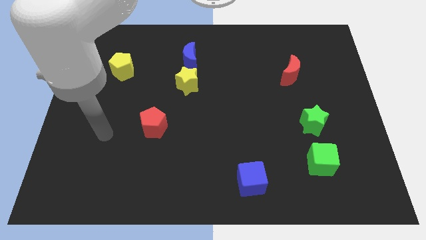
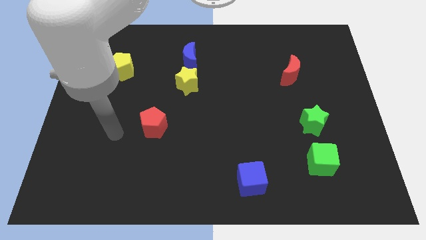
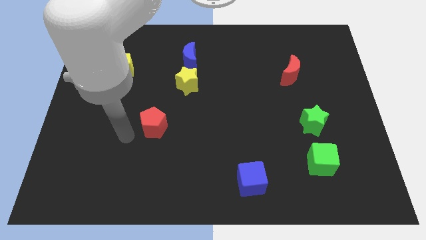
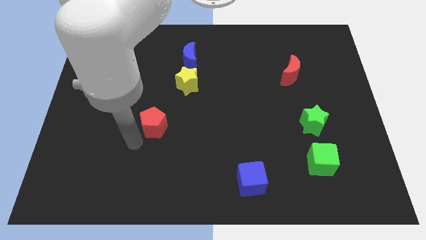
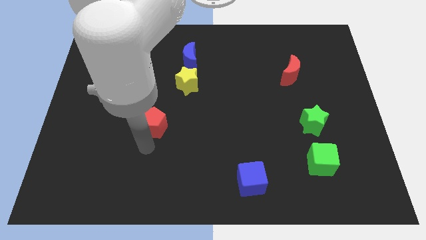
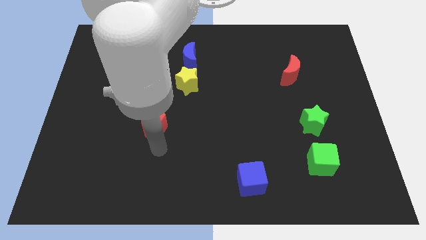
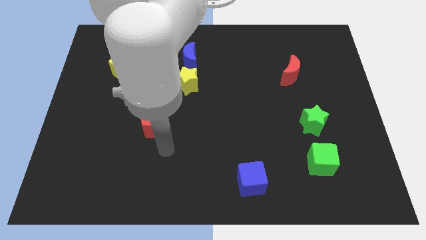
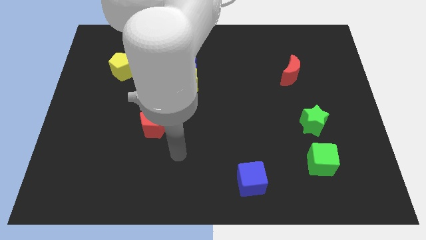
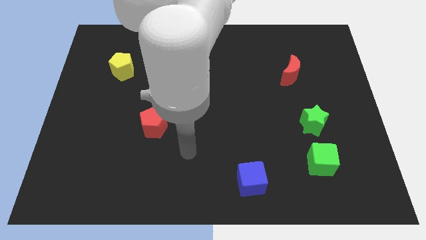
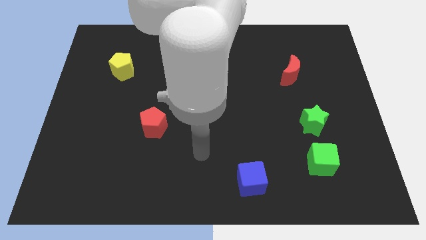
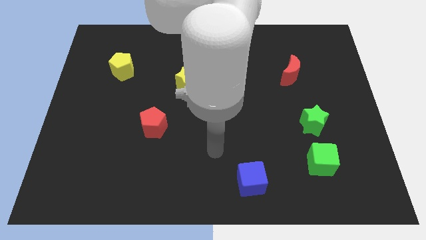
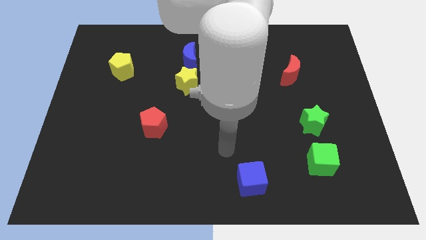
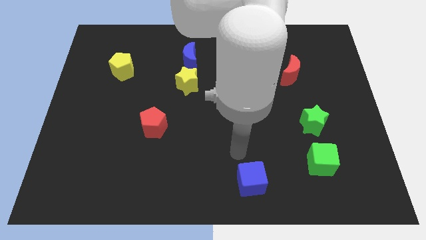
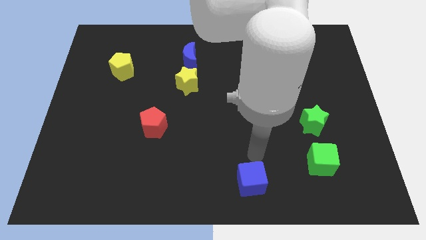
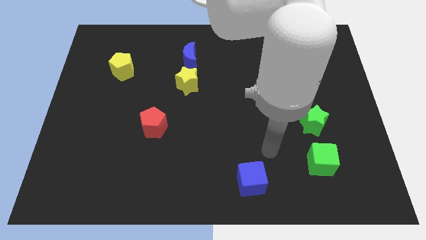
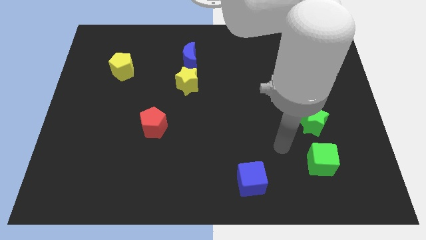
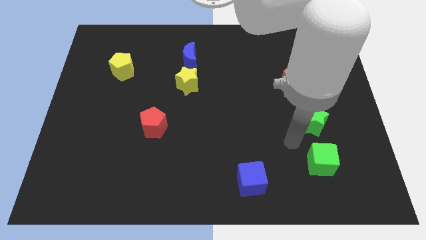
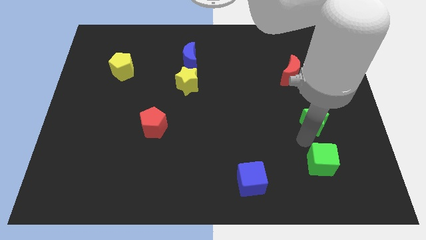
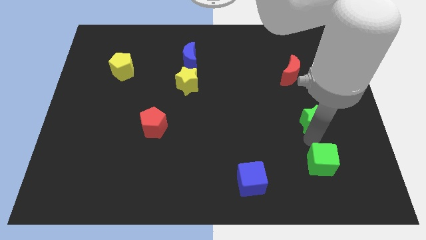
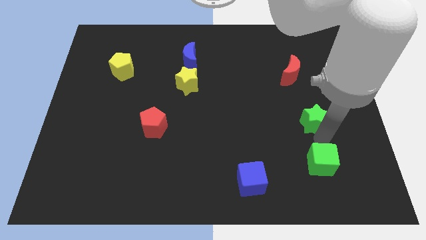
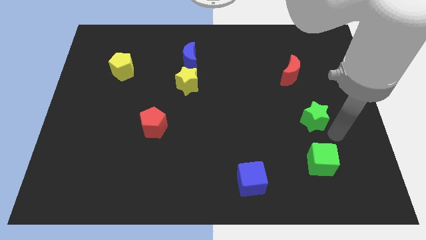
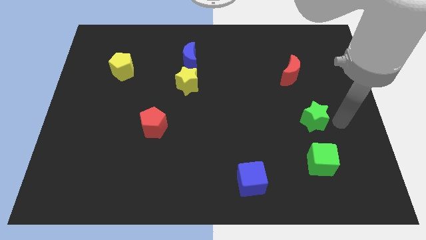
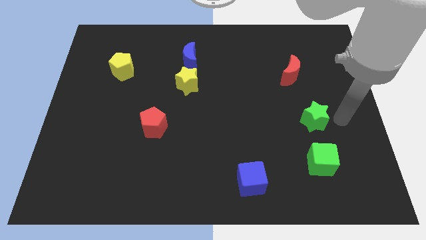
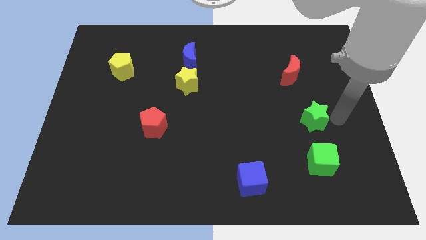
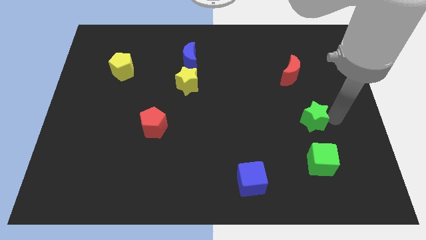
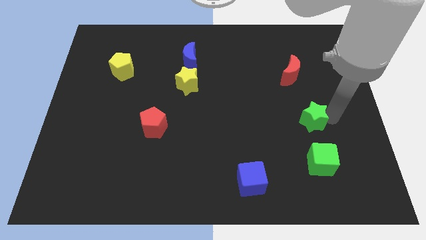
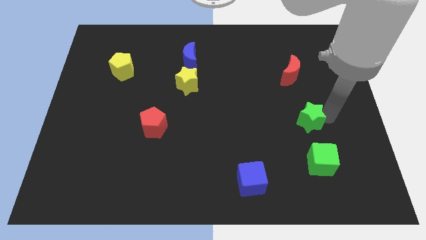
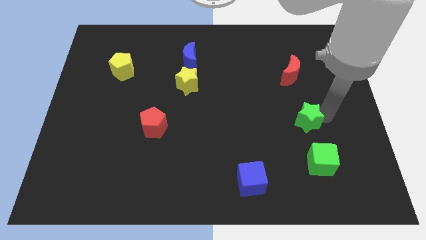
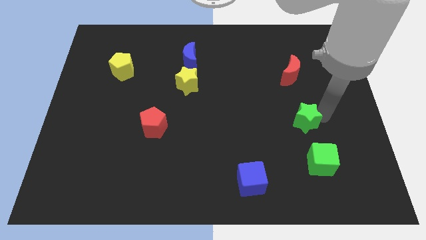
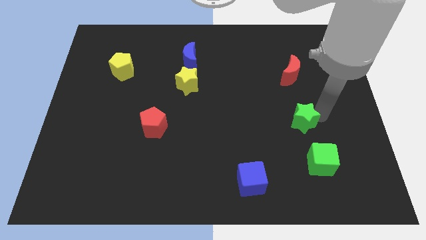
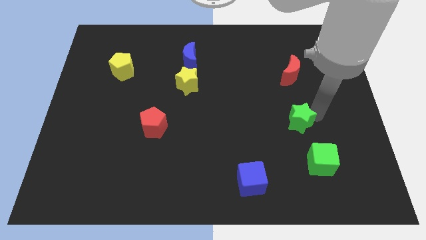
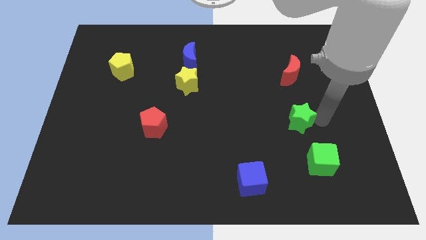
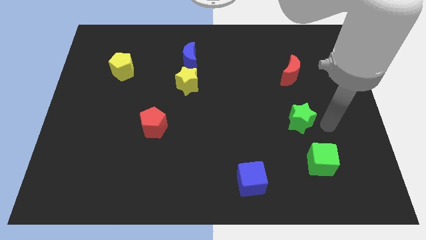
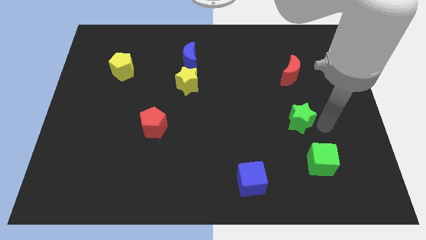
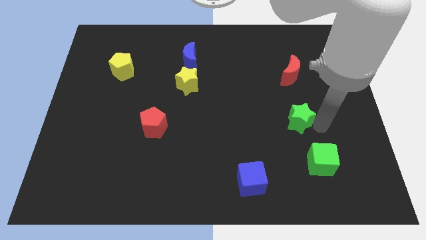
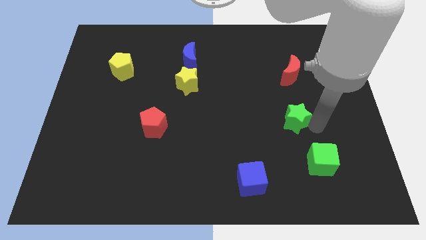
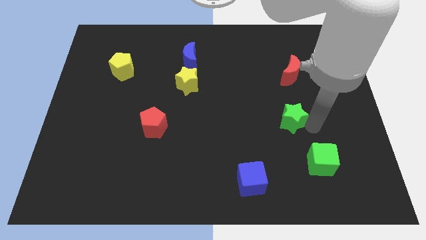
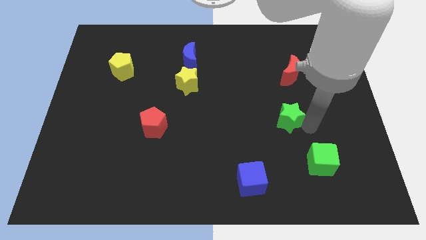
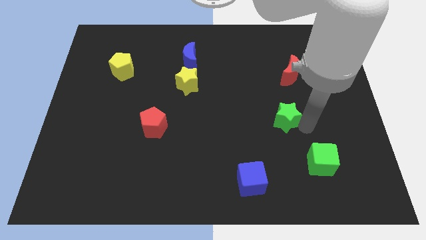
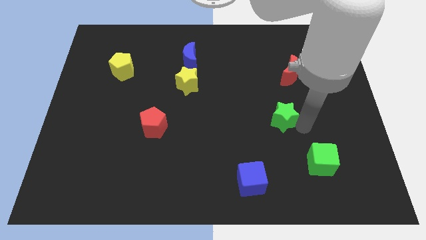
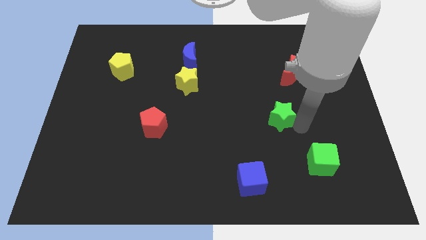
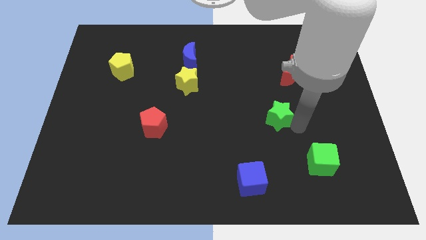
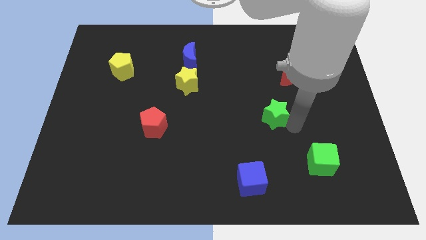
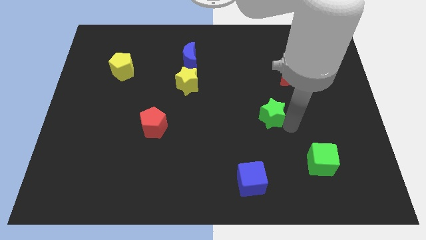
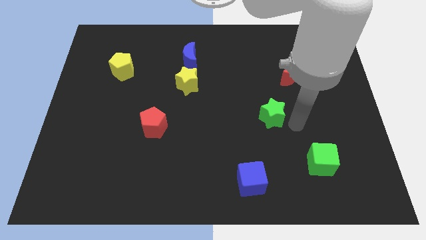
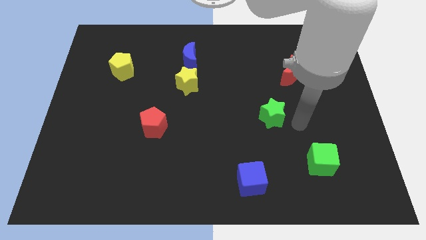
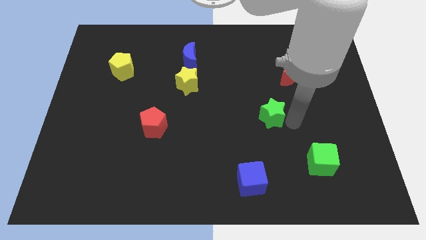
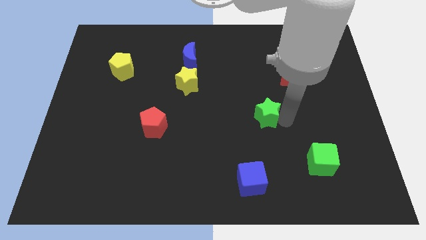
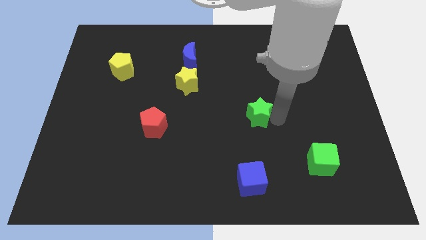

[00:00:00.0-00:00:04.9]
put the green star to the center

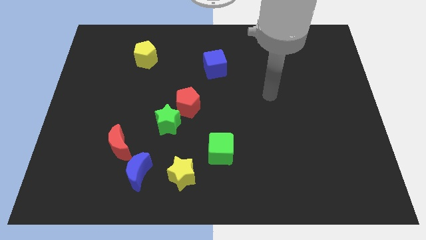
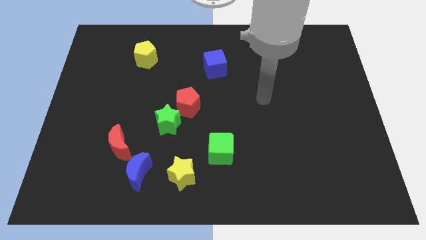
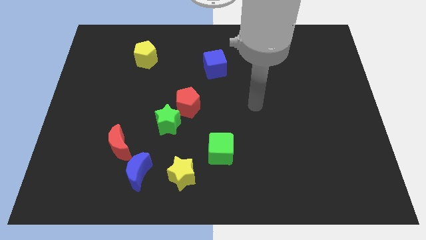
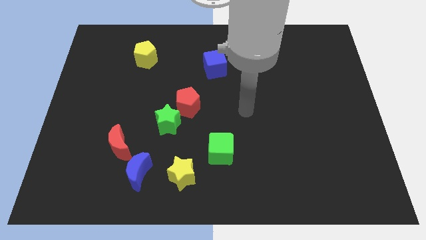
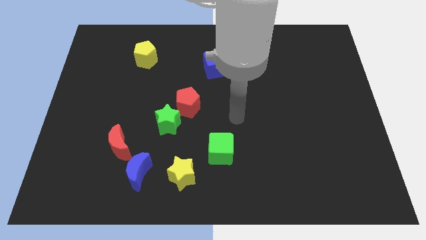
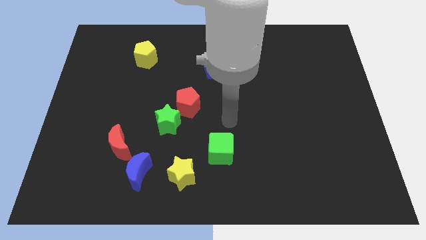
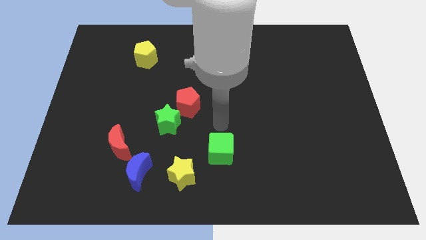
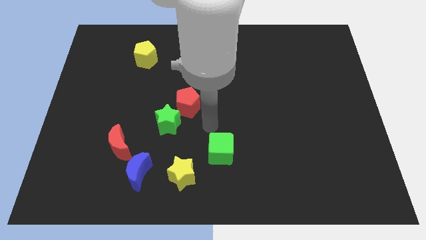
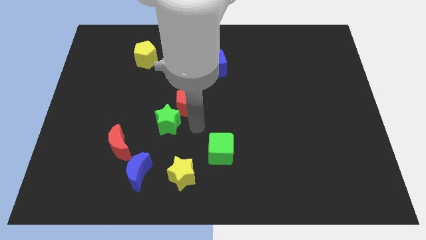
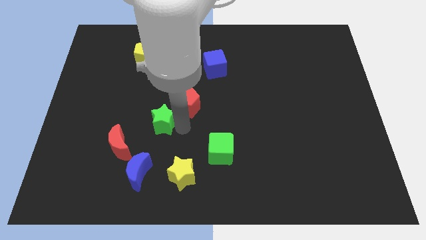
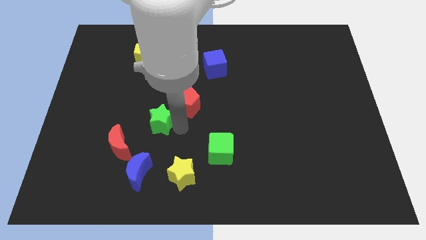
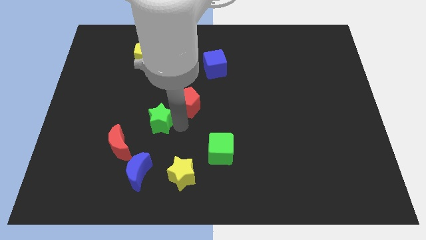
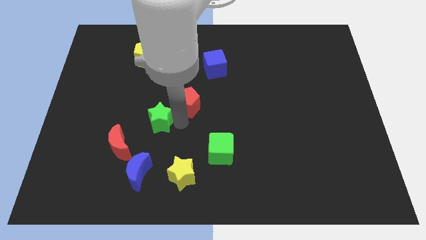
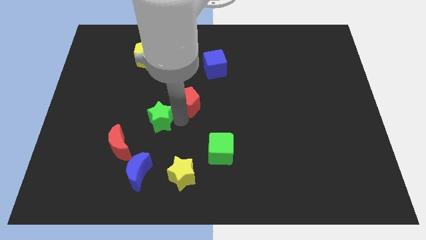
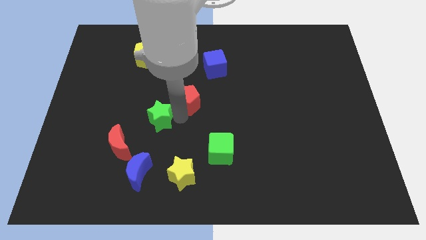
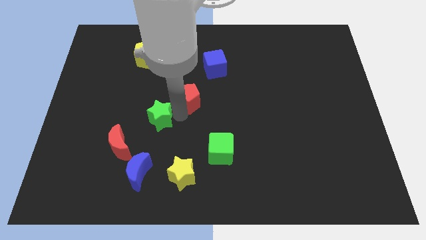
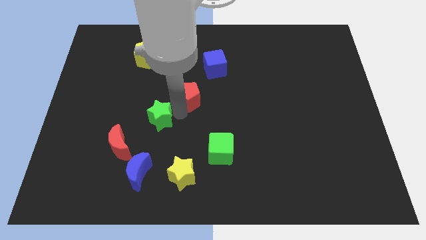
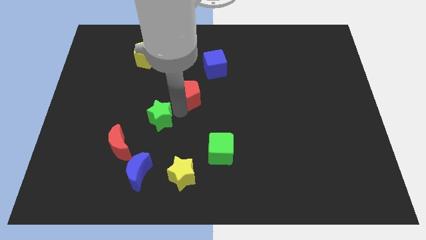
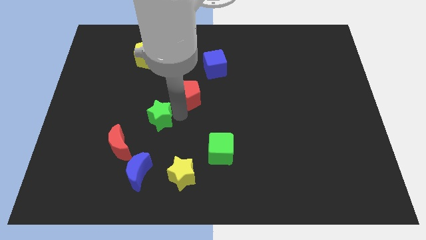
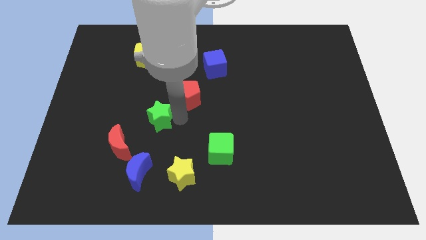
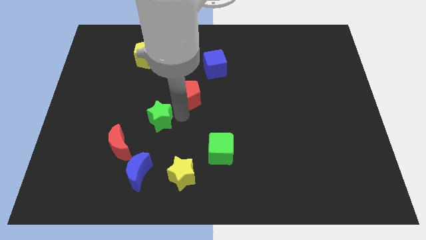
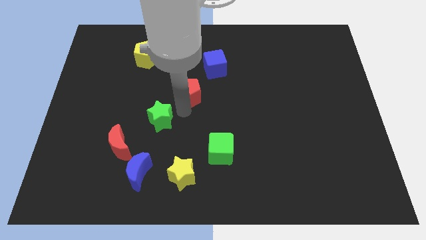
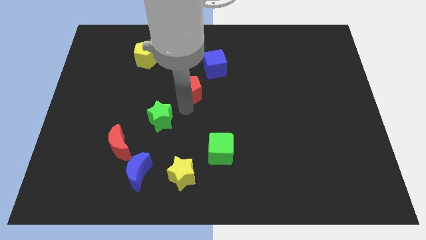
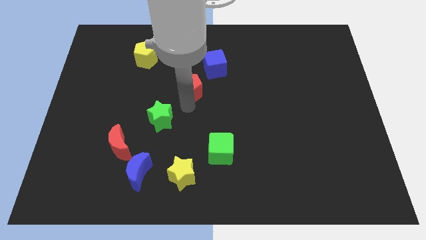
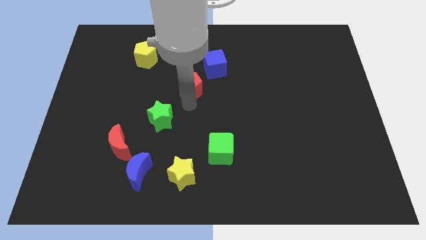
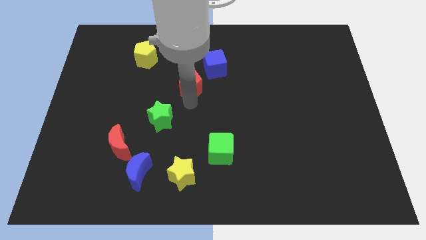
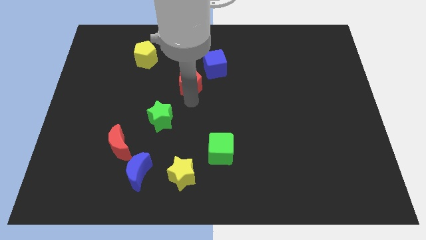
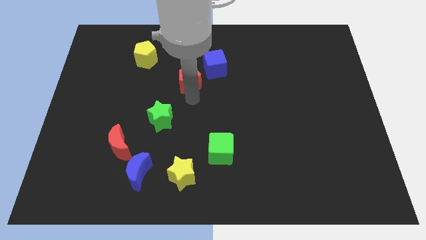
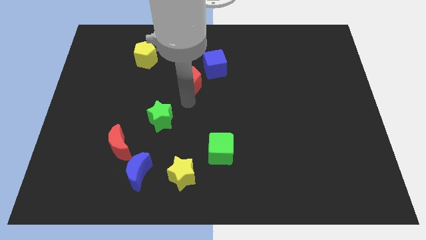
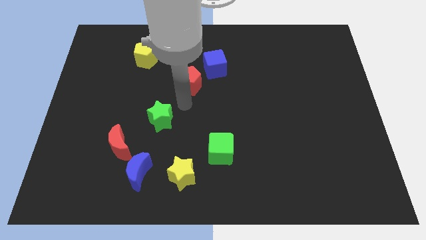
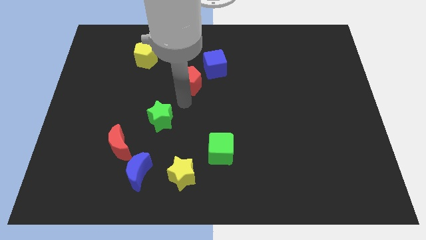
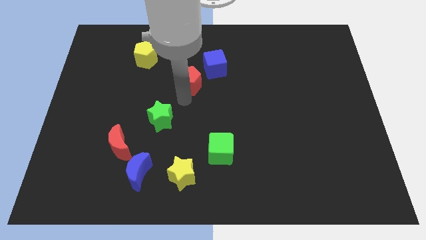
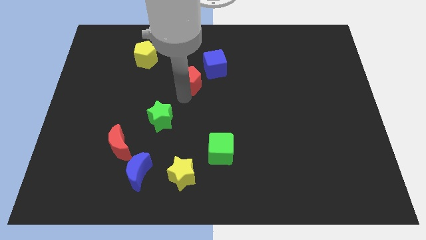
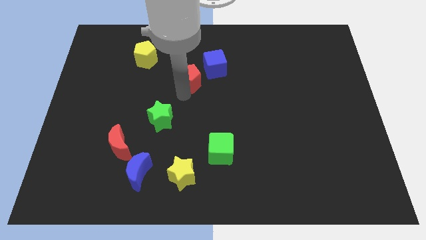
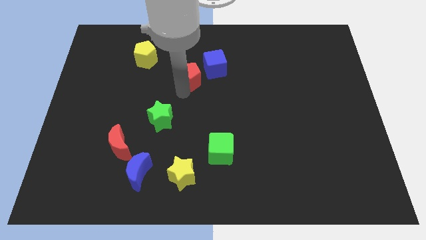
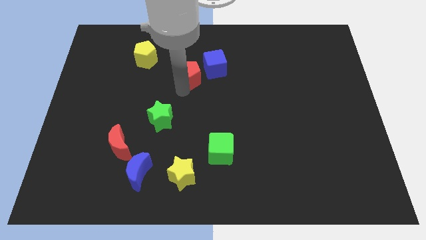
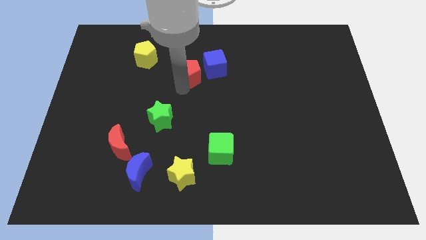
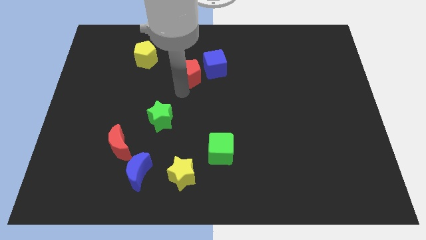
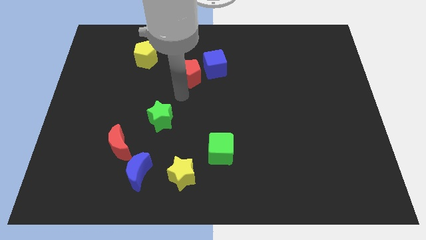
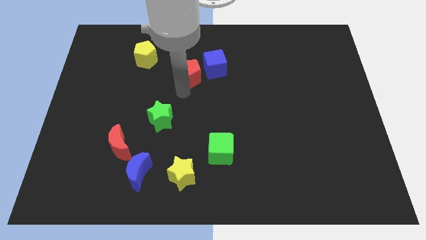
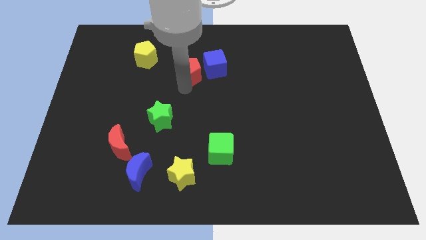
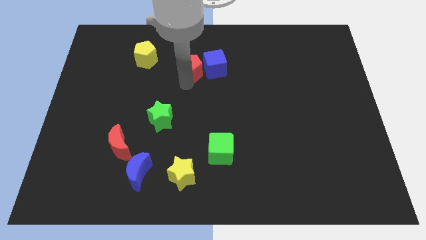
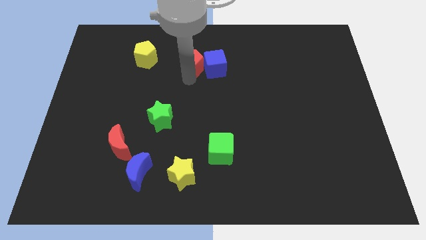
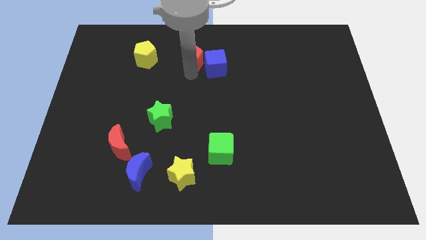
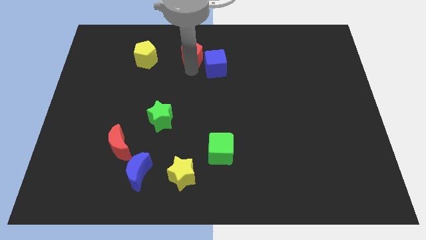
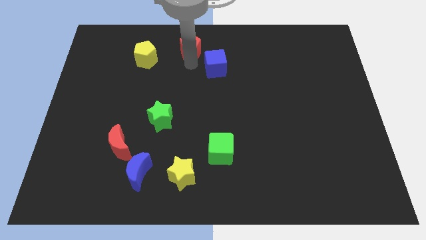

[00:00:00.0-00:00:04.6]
push the red pentagon to the top side
